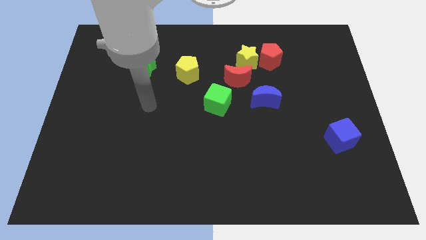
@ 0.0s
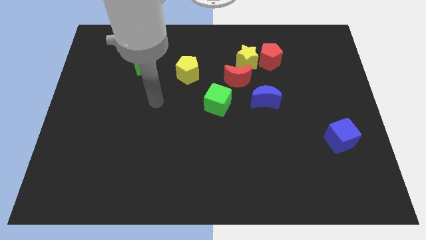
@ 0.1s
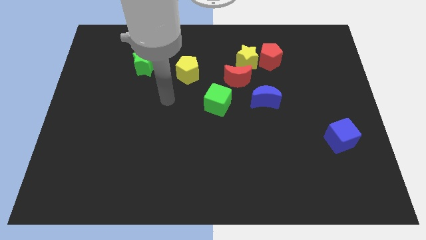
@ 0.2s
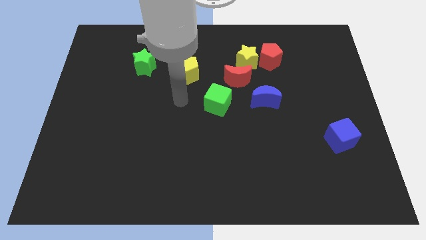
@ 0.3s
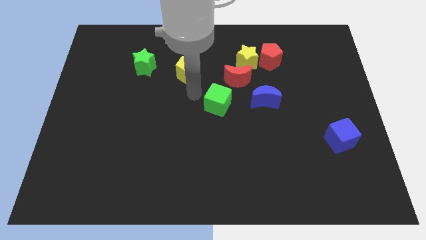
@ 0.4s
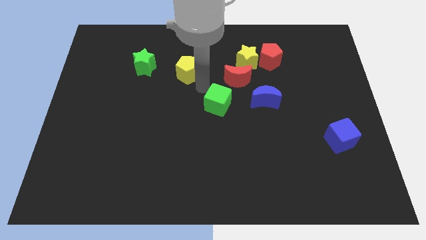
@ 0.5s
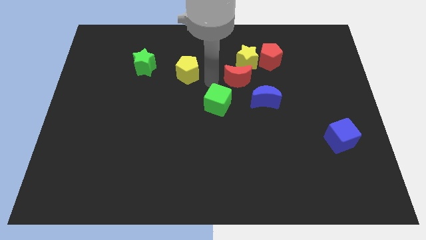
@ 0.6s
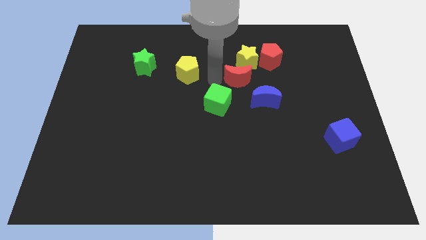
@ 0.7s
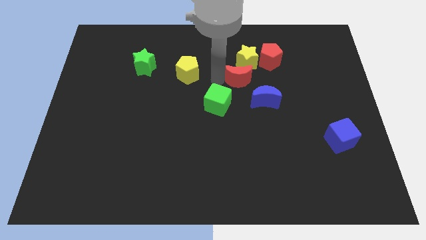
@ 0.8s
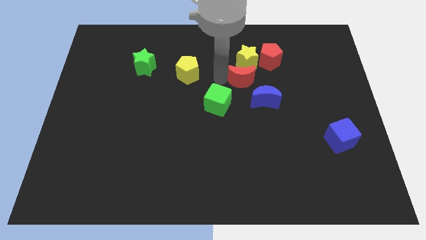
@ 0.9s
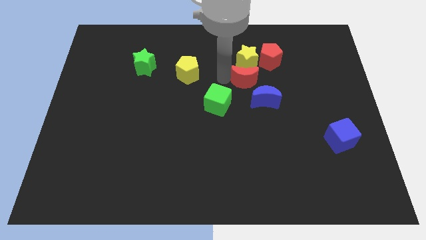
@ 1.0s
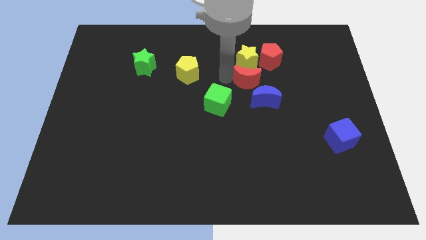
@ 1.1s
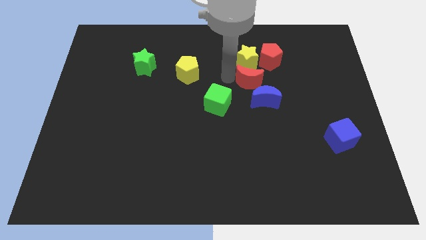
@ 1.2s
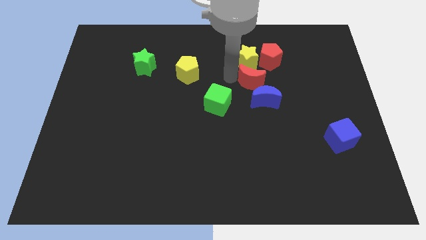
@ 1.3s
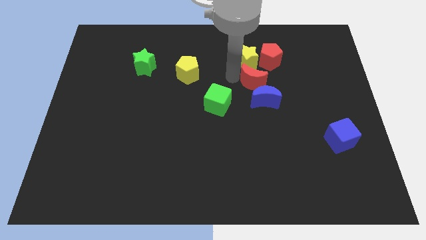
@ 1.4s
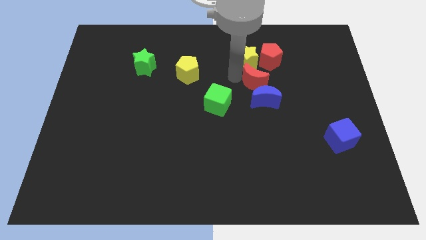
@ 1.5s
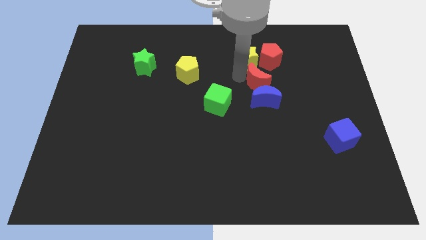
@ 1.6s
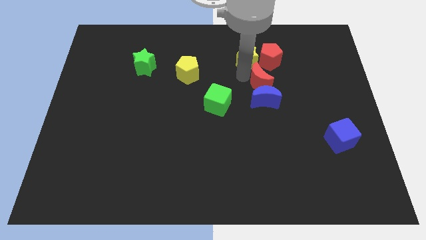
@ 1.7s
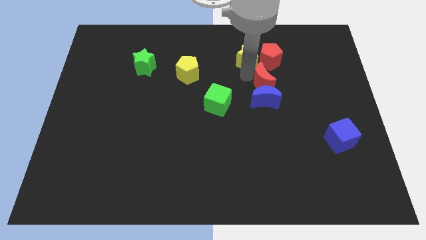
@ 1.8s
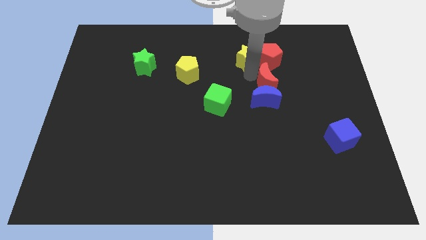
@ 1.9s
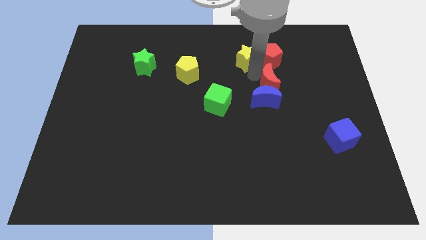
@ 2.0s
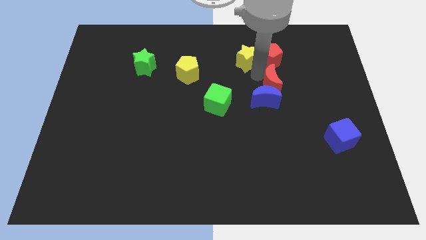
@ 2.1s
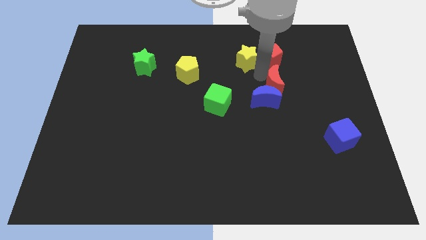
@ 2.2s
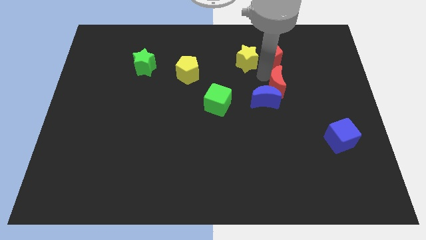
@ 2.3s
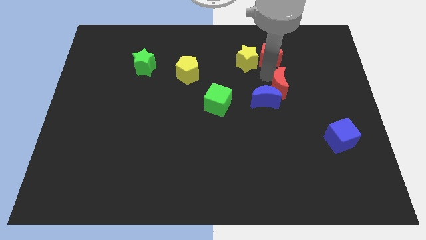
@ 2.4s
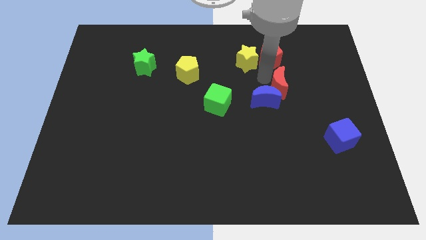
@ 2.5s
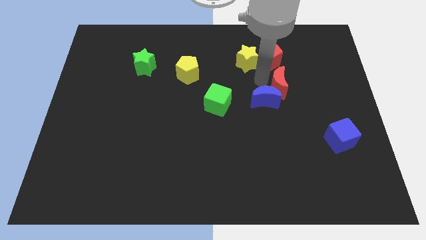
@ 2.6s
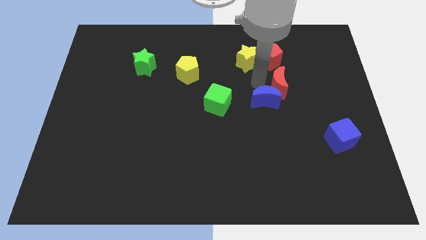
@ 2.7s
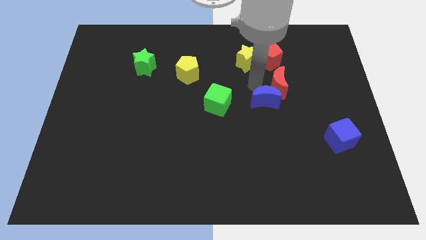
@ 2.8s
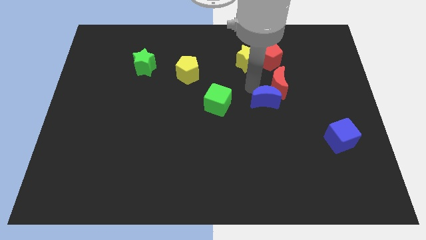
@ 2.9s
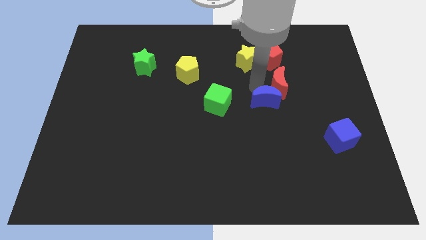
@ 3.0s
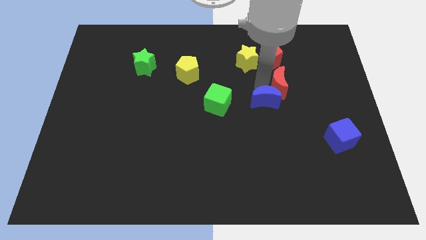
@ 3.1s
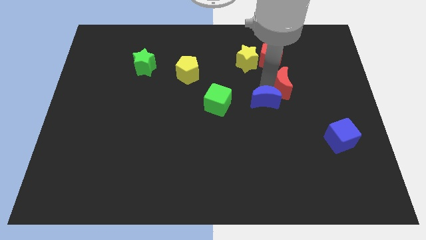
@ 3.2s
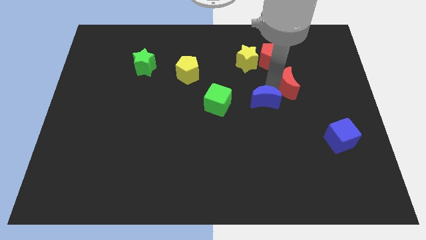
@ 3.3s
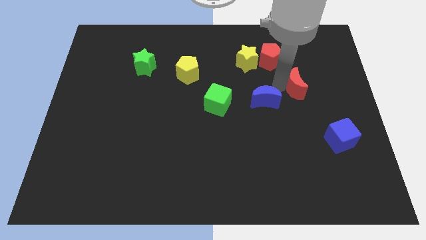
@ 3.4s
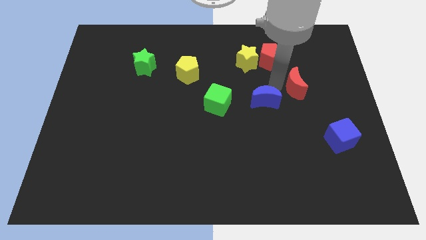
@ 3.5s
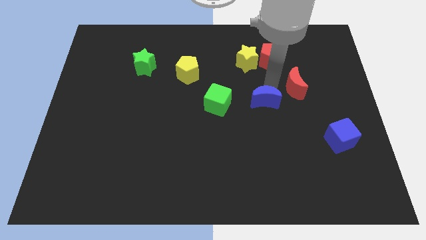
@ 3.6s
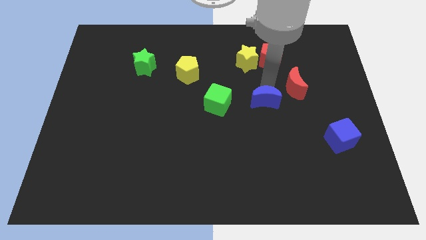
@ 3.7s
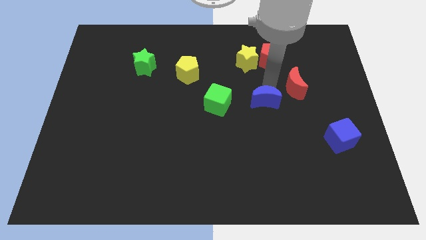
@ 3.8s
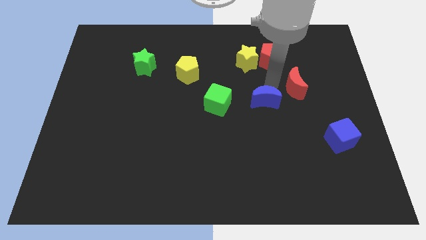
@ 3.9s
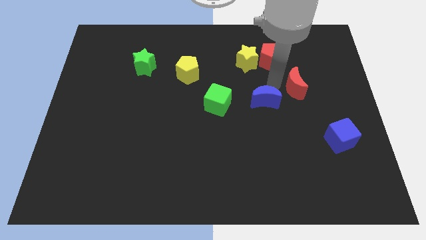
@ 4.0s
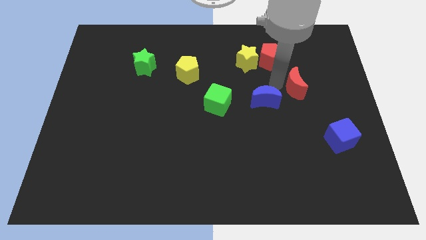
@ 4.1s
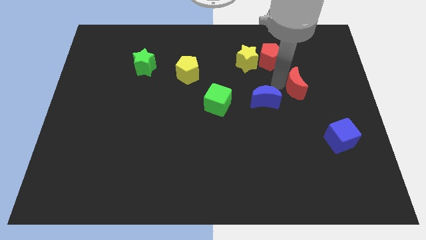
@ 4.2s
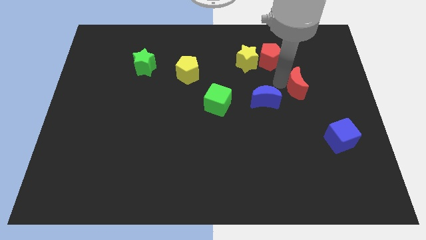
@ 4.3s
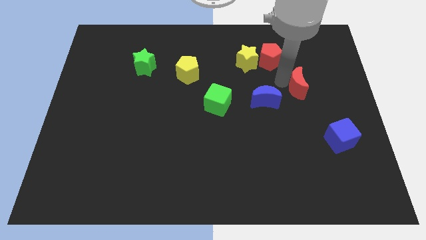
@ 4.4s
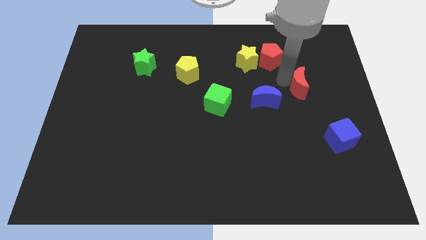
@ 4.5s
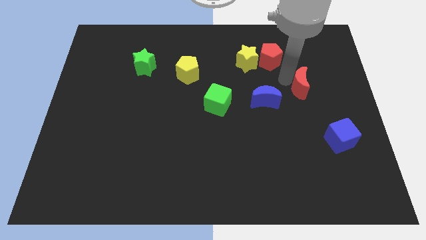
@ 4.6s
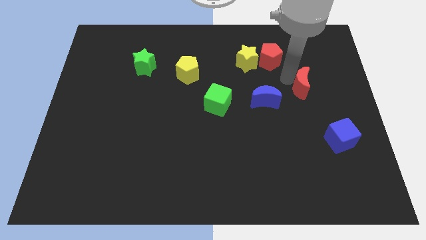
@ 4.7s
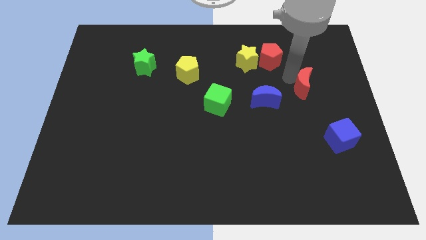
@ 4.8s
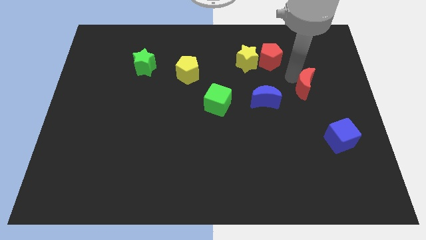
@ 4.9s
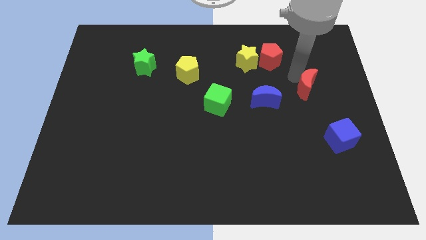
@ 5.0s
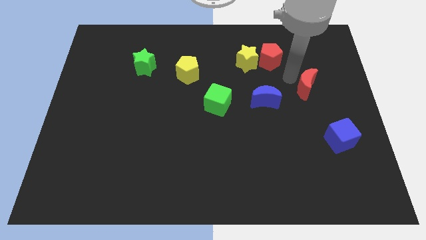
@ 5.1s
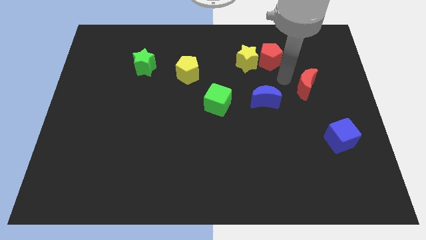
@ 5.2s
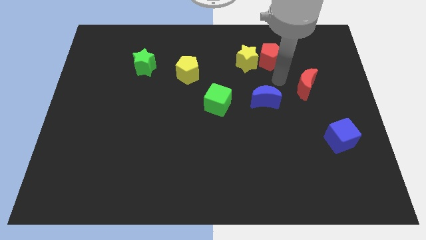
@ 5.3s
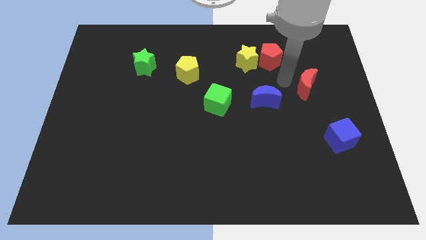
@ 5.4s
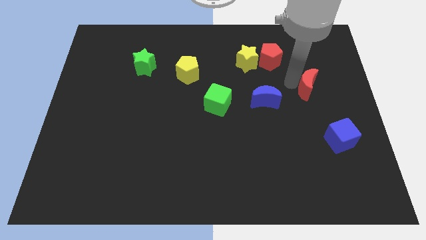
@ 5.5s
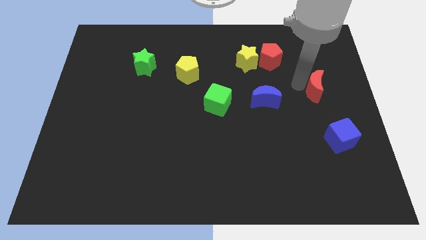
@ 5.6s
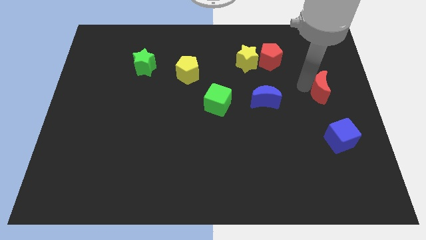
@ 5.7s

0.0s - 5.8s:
push the red moon to the right side

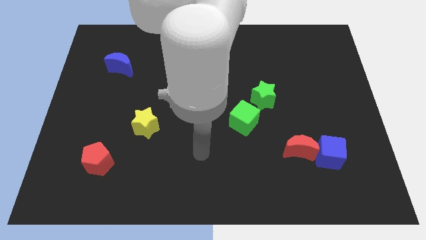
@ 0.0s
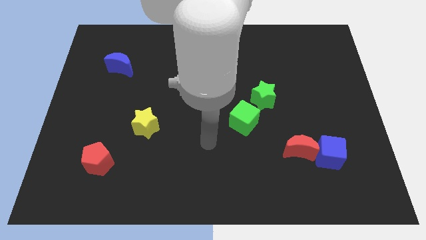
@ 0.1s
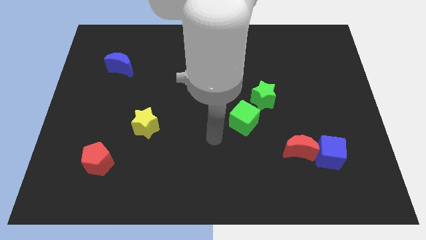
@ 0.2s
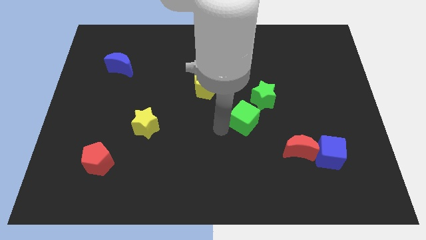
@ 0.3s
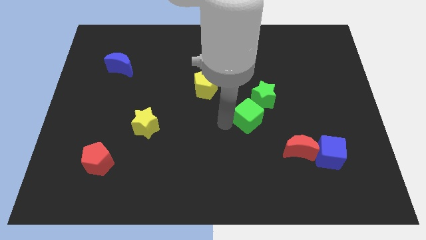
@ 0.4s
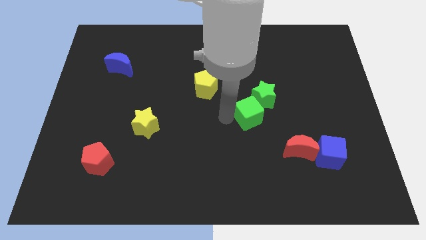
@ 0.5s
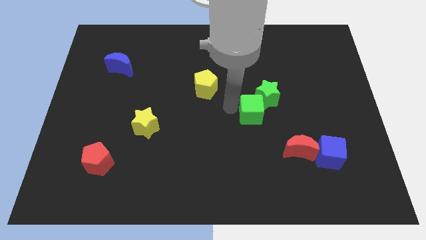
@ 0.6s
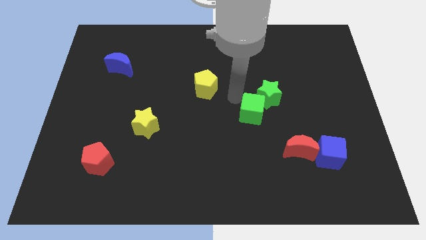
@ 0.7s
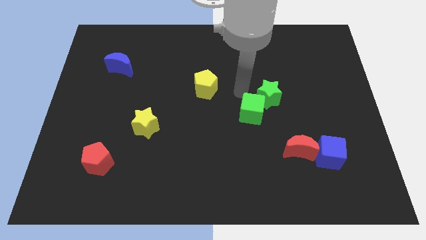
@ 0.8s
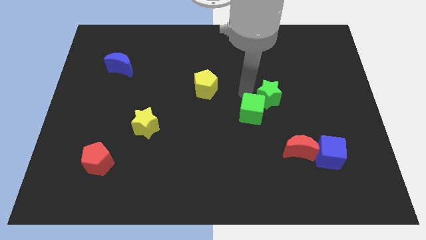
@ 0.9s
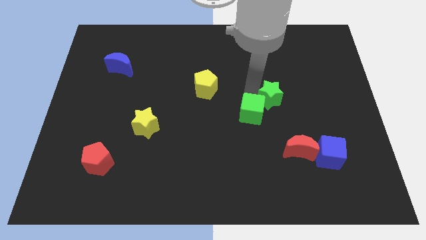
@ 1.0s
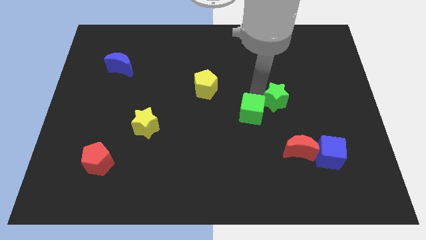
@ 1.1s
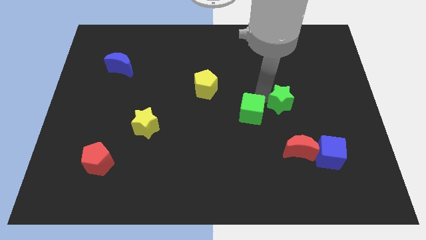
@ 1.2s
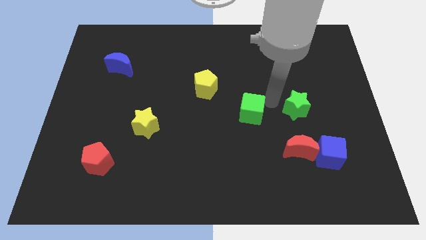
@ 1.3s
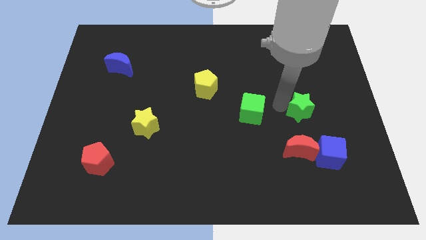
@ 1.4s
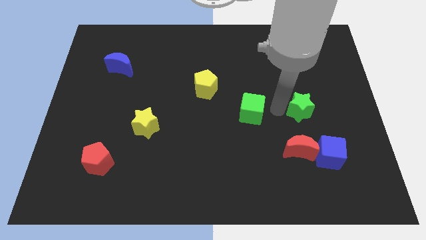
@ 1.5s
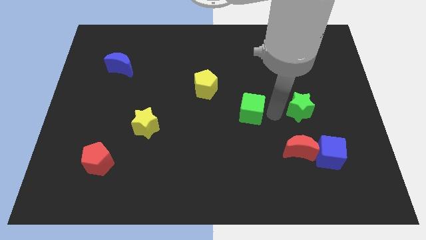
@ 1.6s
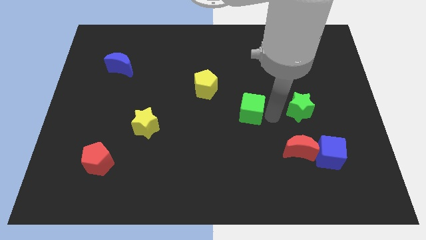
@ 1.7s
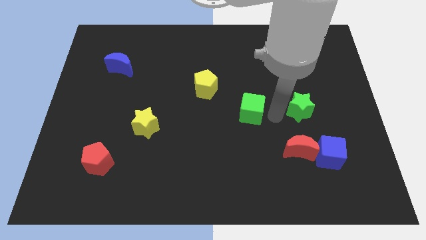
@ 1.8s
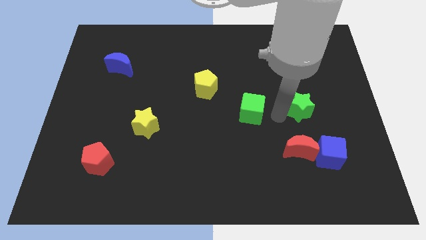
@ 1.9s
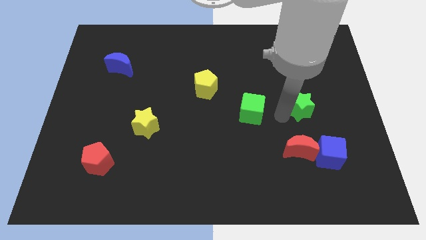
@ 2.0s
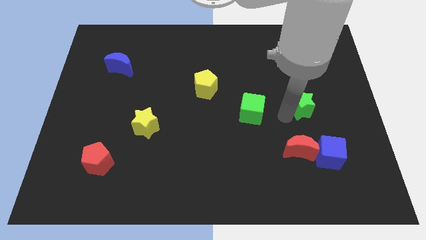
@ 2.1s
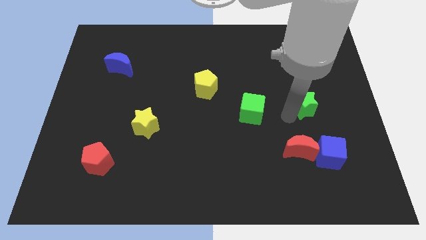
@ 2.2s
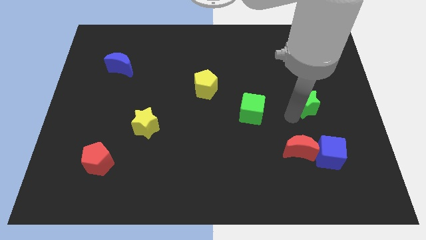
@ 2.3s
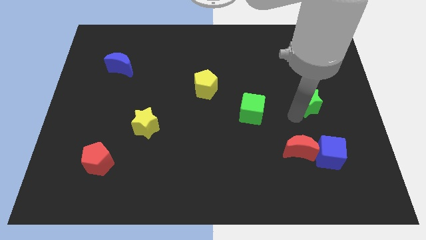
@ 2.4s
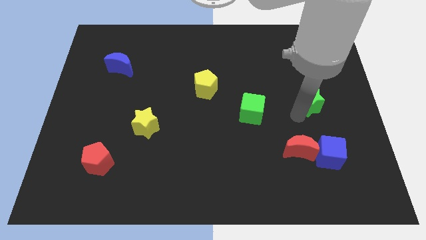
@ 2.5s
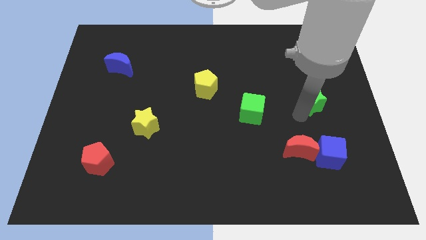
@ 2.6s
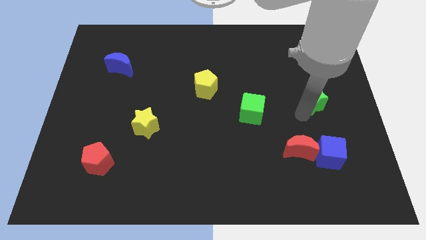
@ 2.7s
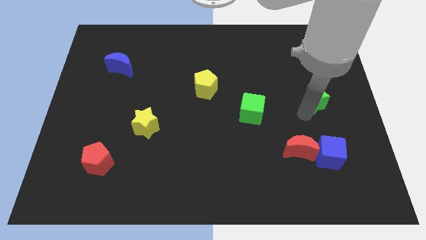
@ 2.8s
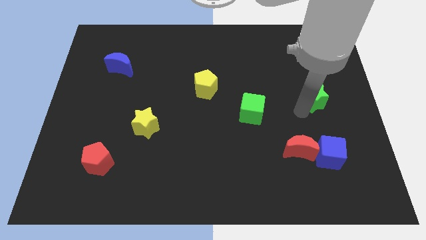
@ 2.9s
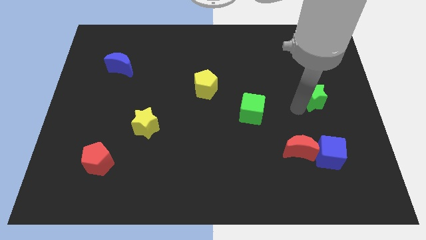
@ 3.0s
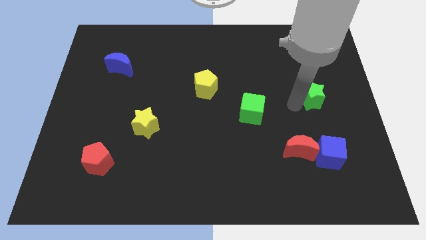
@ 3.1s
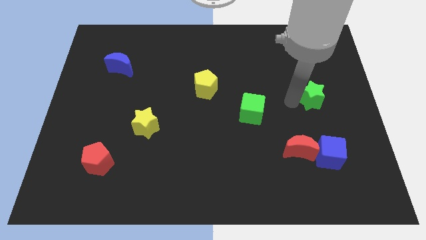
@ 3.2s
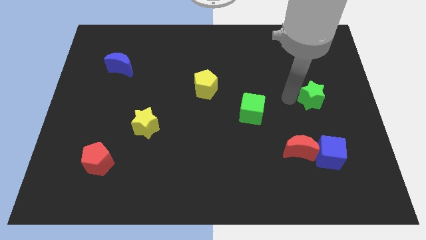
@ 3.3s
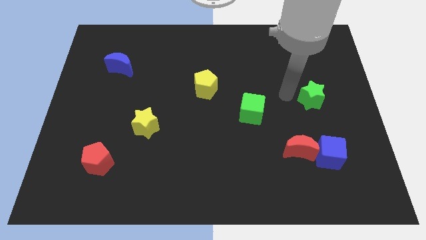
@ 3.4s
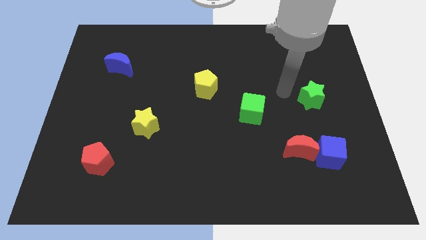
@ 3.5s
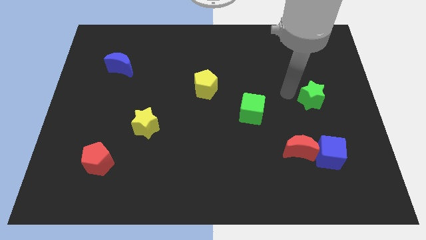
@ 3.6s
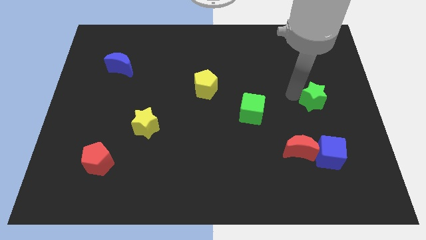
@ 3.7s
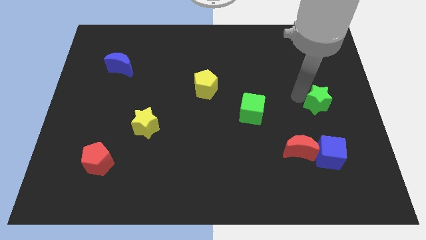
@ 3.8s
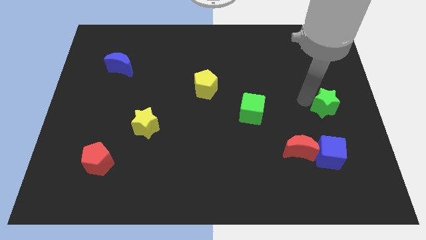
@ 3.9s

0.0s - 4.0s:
move the green star to the right side
